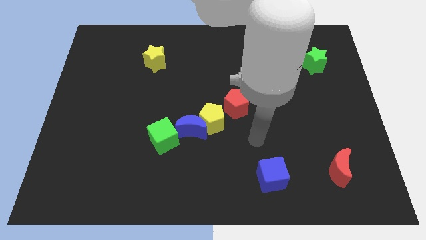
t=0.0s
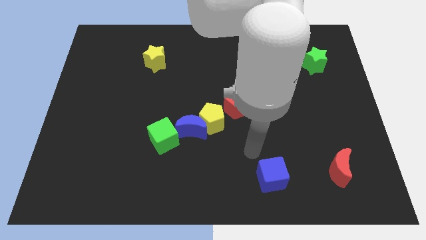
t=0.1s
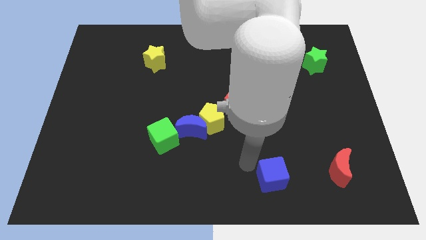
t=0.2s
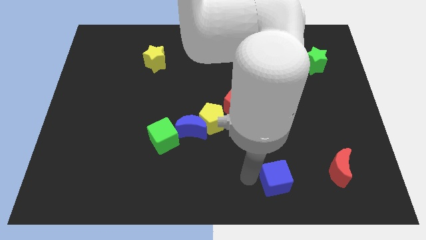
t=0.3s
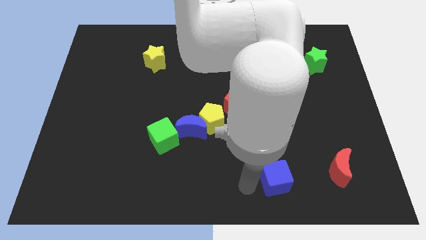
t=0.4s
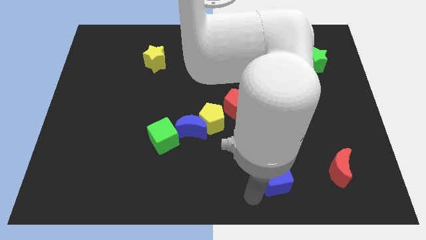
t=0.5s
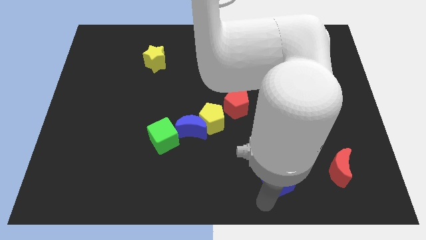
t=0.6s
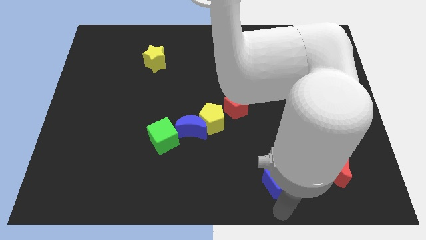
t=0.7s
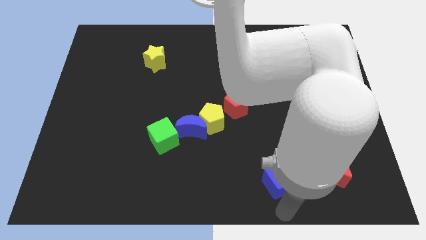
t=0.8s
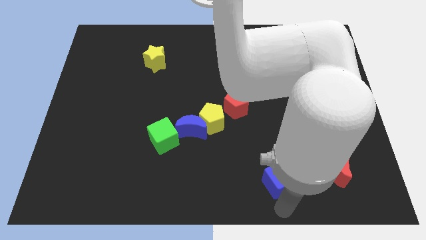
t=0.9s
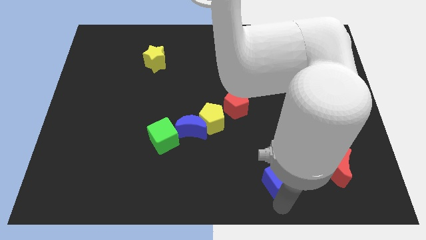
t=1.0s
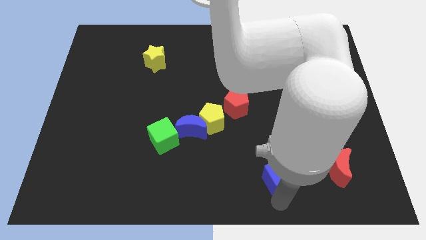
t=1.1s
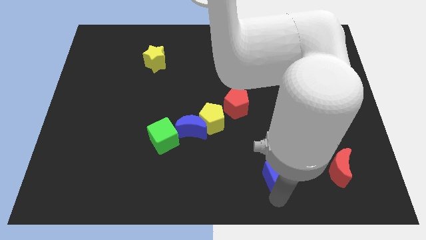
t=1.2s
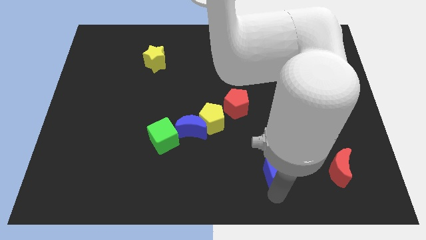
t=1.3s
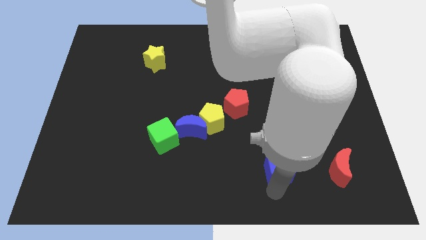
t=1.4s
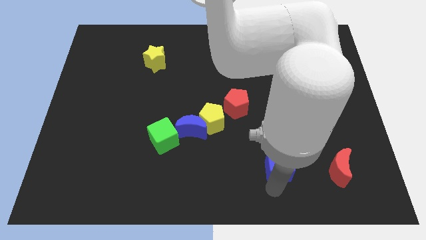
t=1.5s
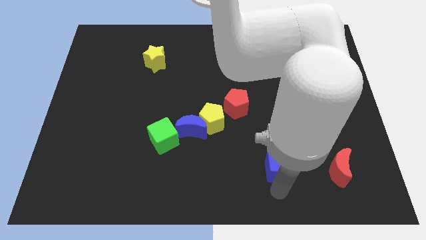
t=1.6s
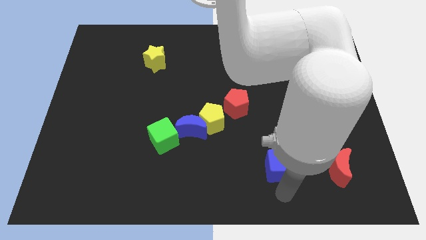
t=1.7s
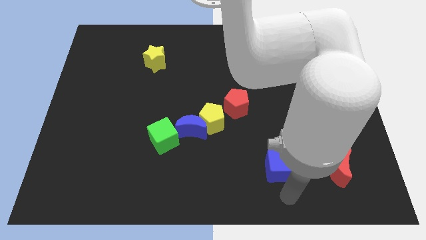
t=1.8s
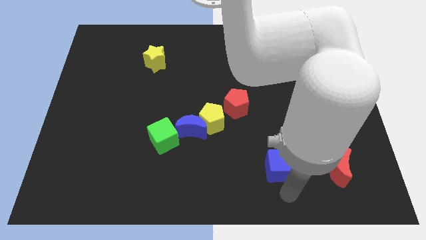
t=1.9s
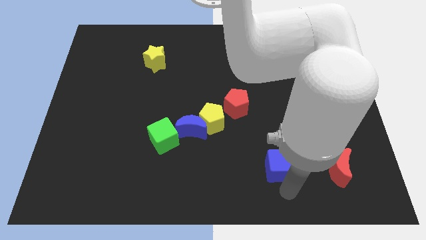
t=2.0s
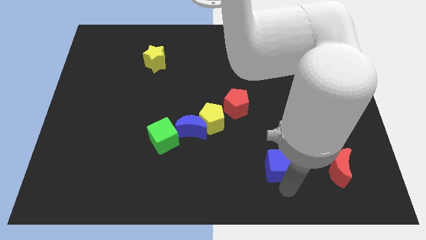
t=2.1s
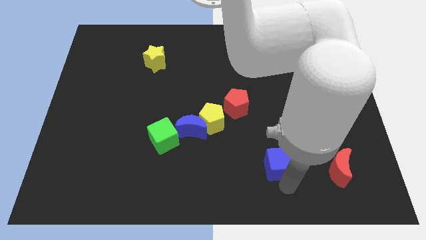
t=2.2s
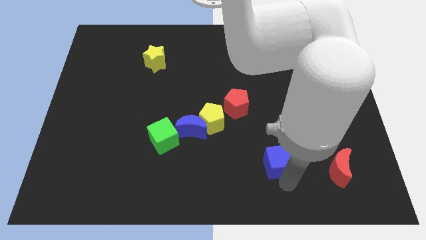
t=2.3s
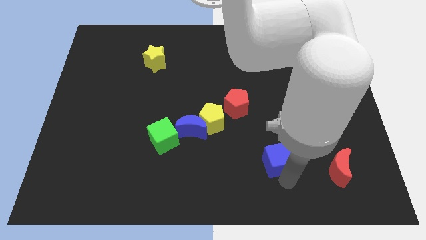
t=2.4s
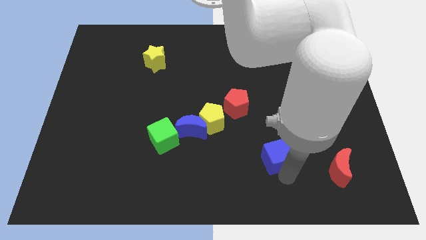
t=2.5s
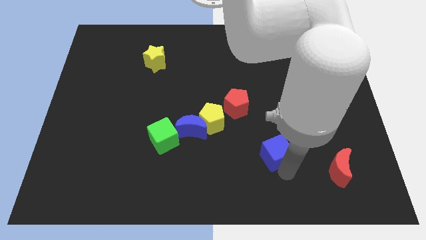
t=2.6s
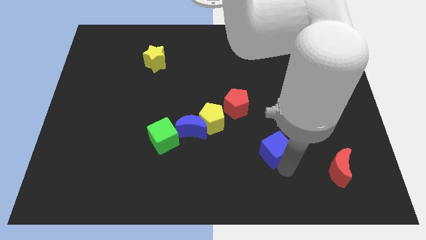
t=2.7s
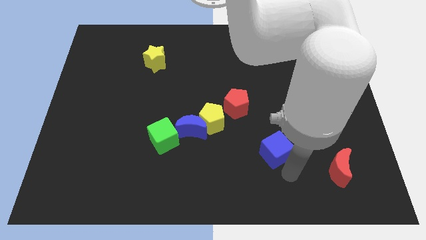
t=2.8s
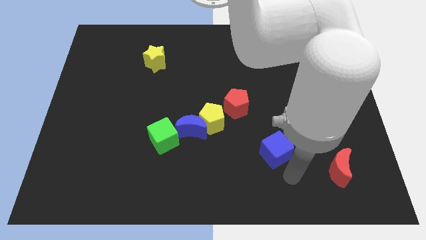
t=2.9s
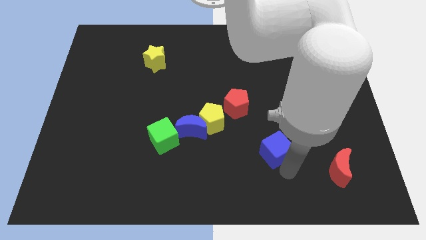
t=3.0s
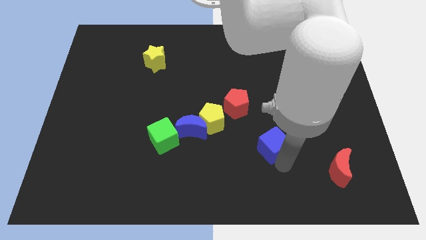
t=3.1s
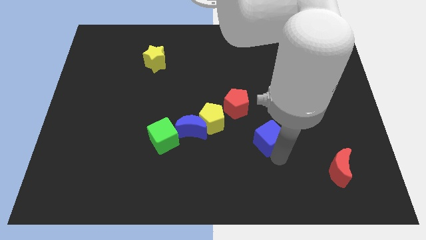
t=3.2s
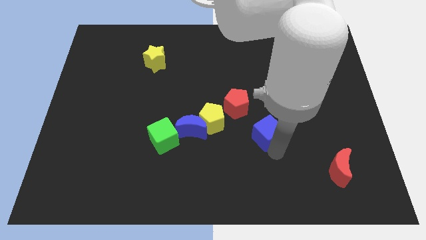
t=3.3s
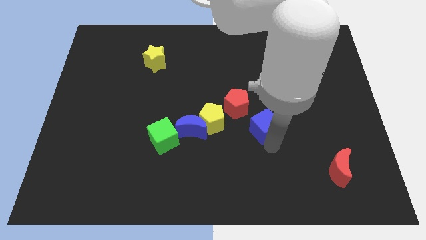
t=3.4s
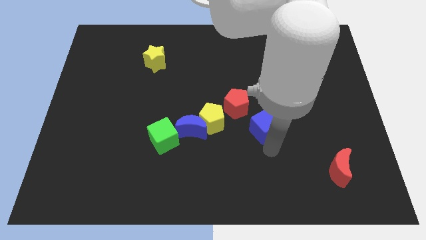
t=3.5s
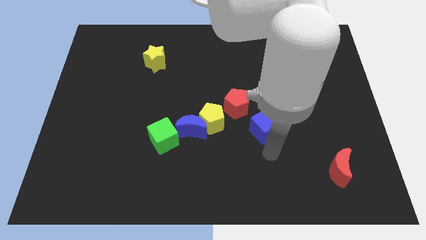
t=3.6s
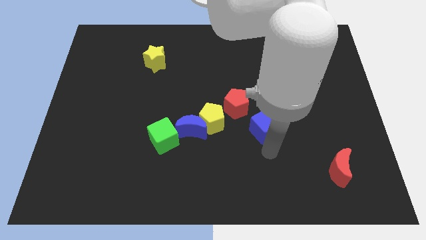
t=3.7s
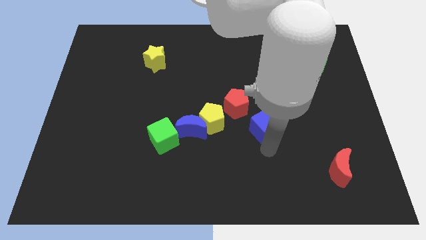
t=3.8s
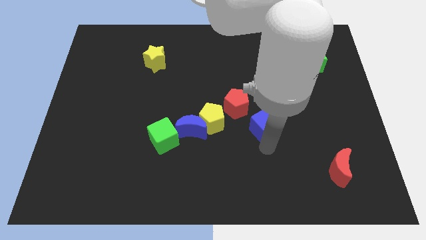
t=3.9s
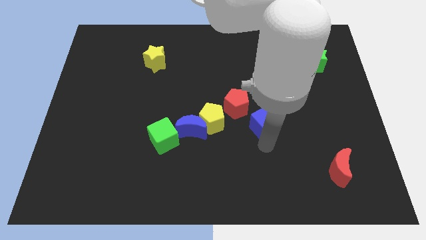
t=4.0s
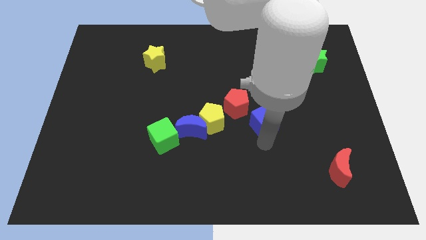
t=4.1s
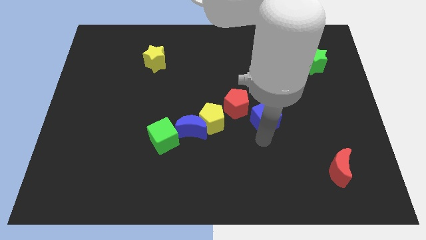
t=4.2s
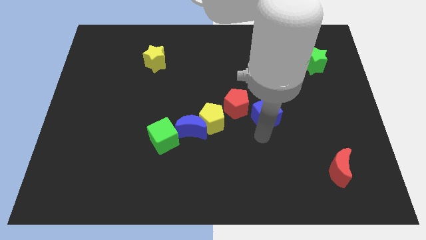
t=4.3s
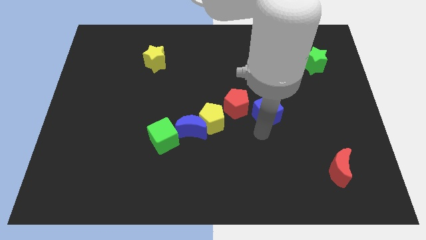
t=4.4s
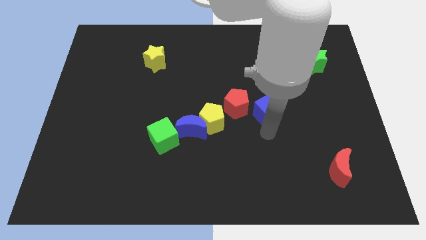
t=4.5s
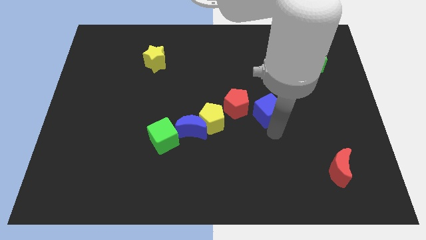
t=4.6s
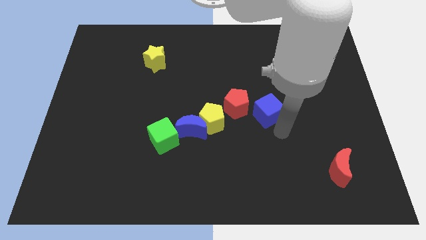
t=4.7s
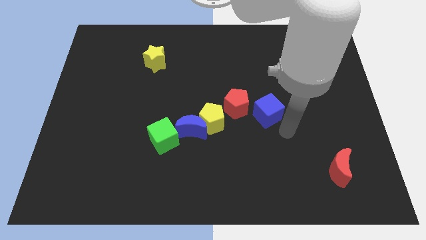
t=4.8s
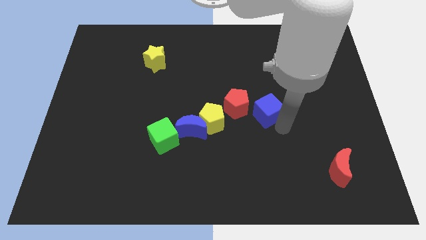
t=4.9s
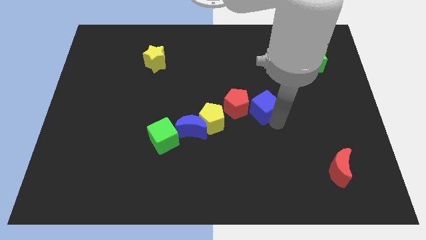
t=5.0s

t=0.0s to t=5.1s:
put the blue cube to the middle of the board

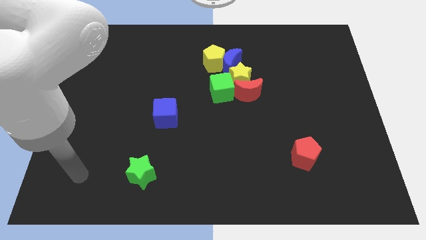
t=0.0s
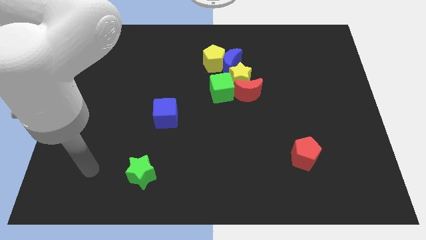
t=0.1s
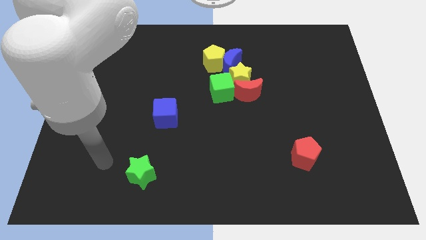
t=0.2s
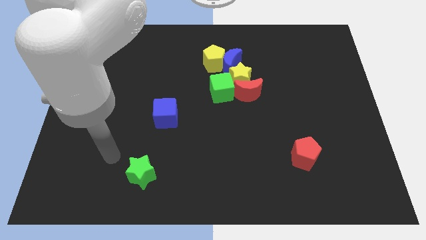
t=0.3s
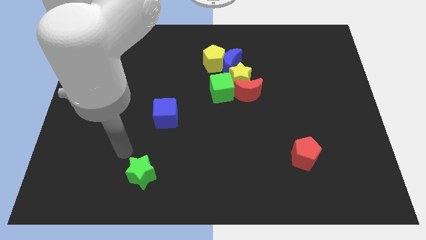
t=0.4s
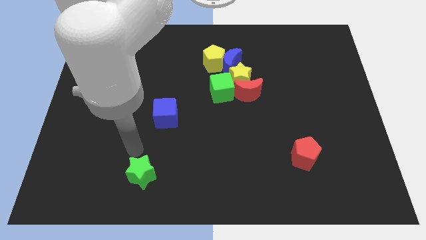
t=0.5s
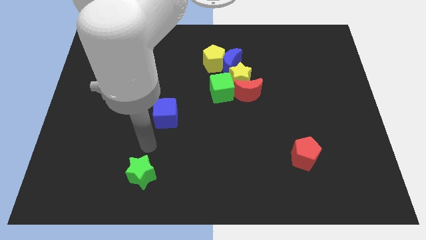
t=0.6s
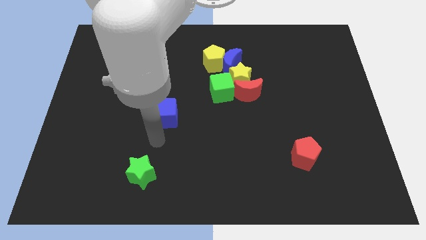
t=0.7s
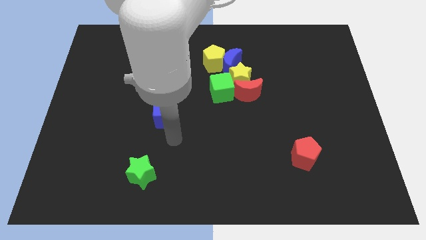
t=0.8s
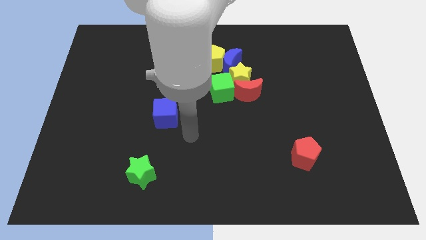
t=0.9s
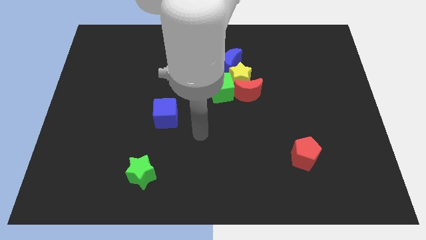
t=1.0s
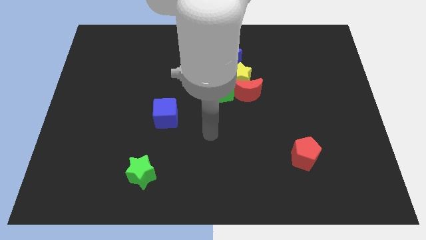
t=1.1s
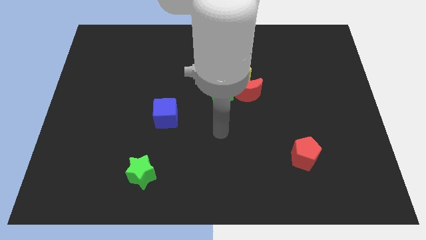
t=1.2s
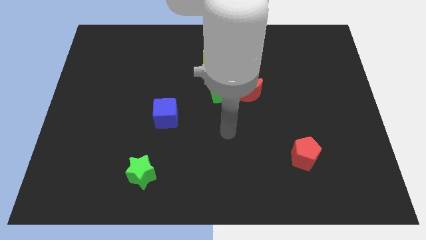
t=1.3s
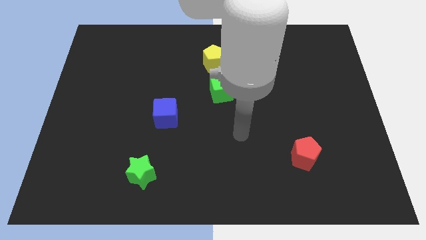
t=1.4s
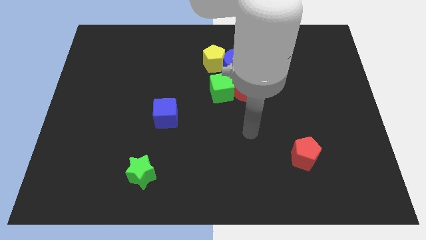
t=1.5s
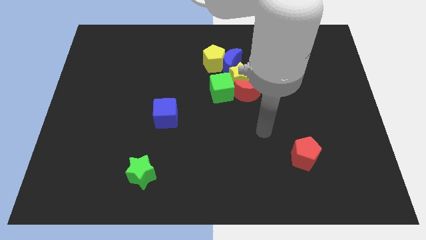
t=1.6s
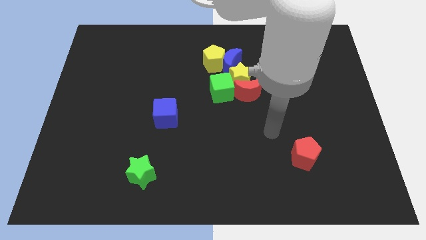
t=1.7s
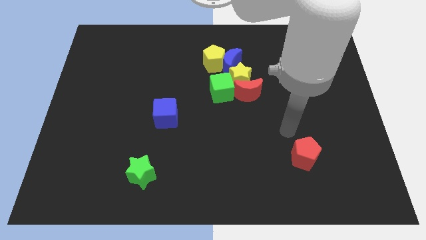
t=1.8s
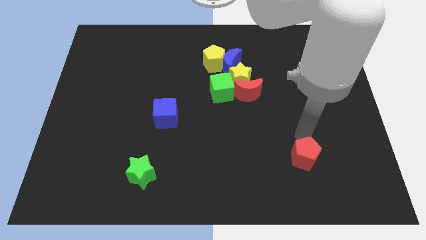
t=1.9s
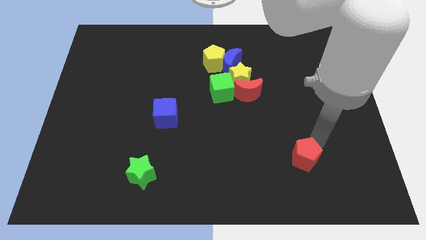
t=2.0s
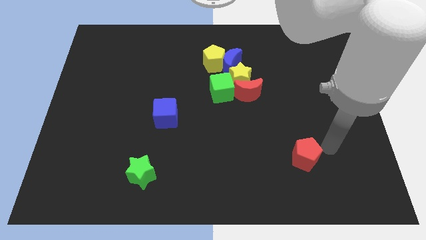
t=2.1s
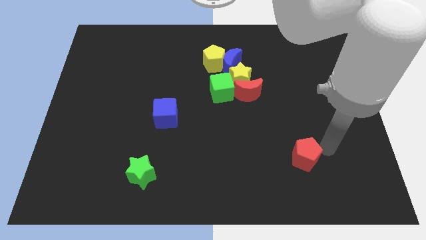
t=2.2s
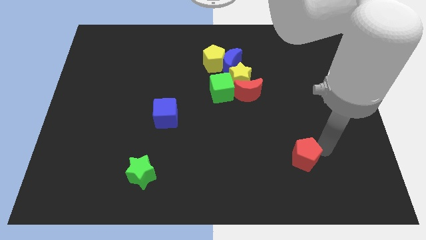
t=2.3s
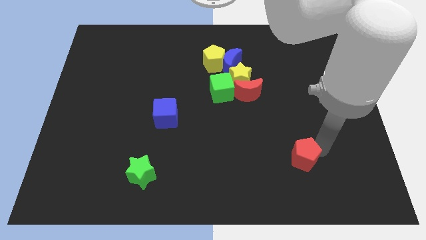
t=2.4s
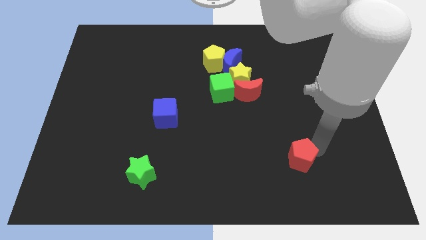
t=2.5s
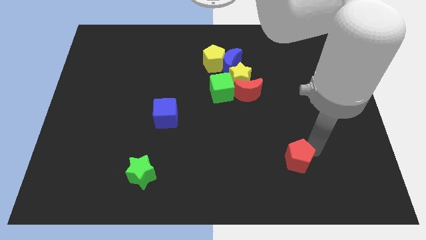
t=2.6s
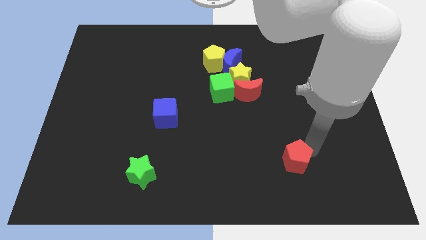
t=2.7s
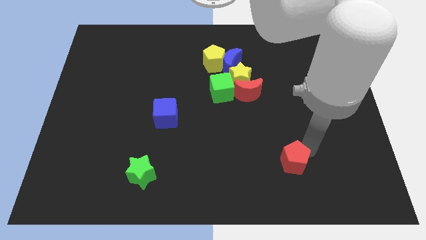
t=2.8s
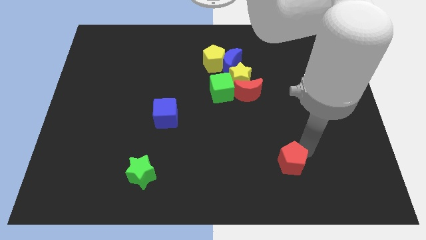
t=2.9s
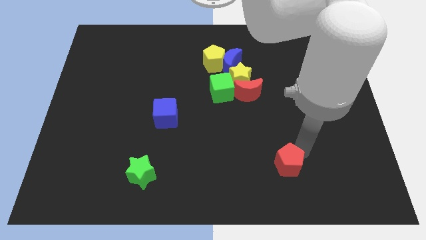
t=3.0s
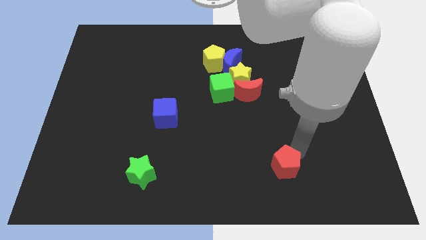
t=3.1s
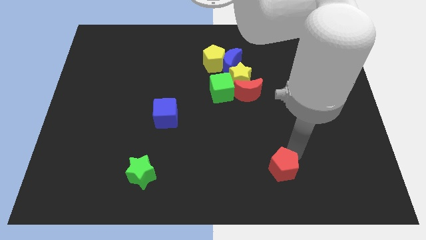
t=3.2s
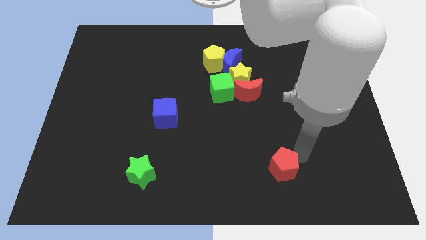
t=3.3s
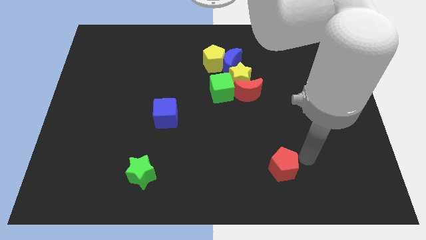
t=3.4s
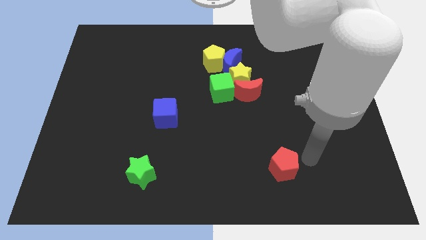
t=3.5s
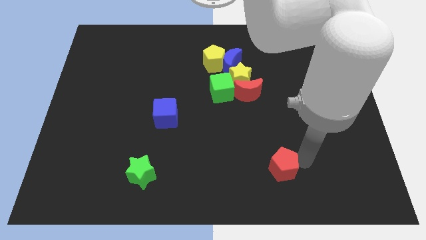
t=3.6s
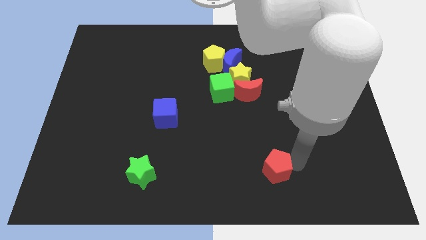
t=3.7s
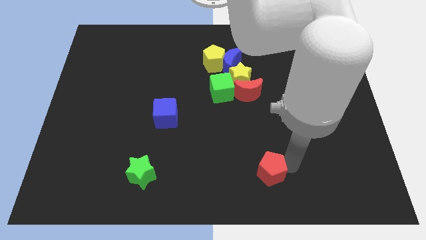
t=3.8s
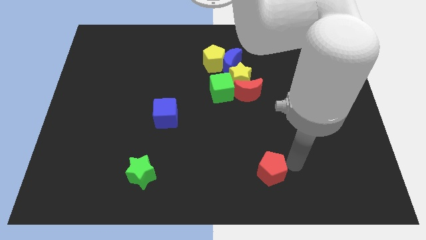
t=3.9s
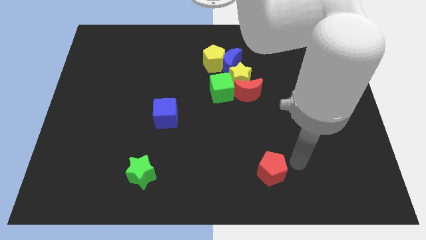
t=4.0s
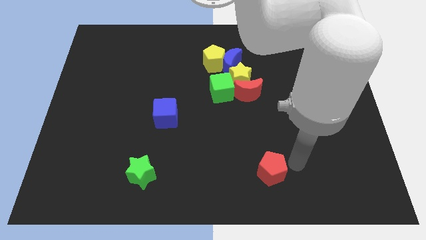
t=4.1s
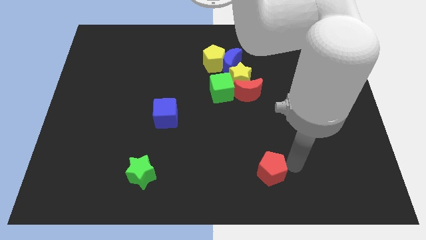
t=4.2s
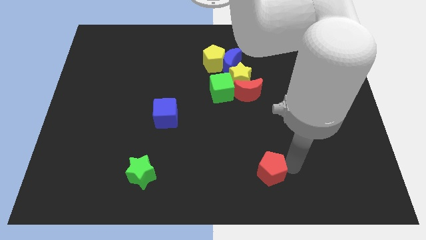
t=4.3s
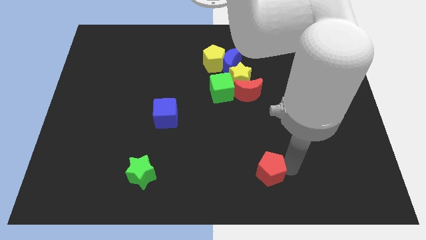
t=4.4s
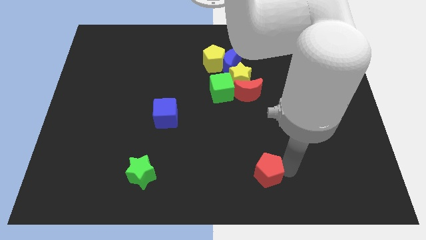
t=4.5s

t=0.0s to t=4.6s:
put the red pentagon to the bottom
